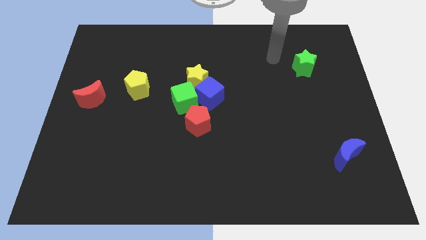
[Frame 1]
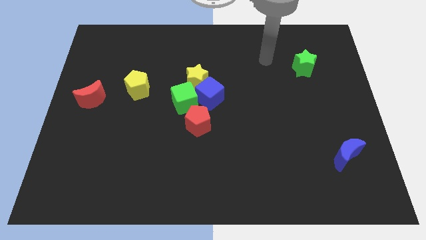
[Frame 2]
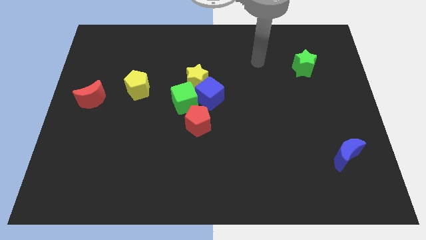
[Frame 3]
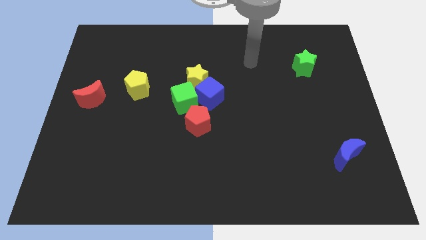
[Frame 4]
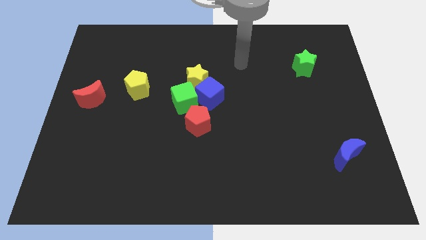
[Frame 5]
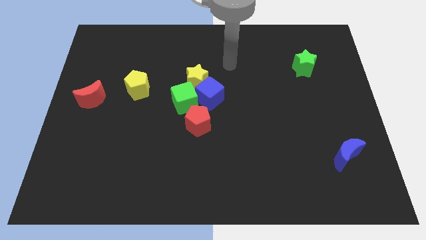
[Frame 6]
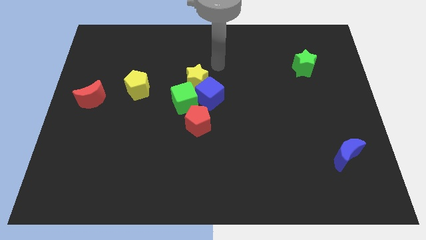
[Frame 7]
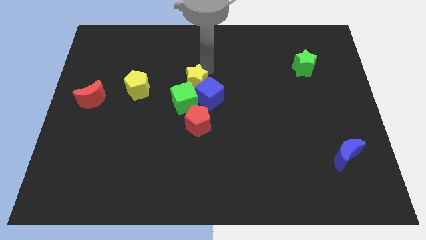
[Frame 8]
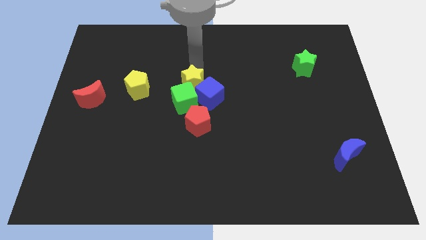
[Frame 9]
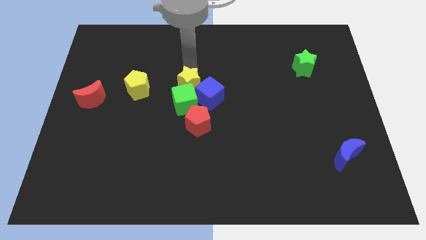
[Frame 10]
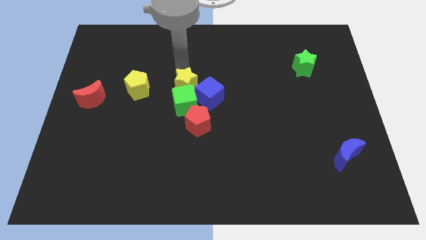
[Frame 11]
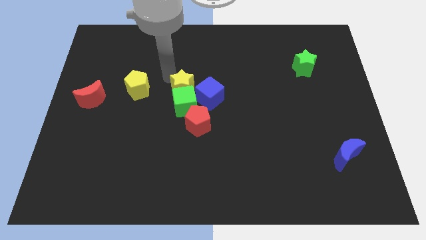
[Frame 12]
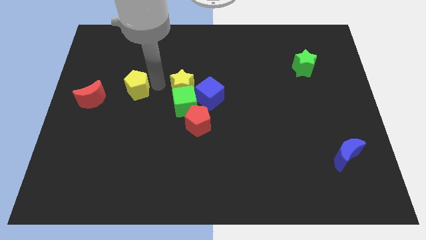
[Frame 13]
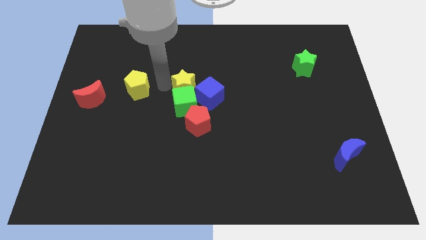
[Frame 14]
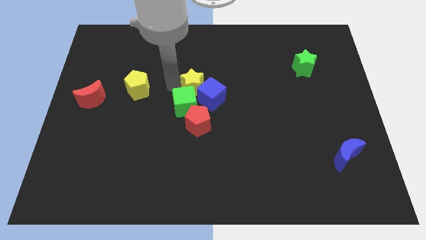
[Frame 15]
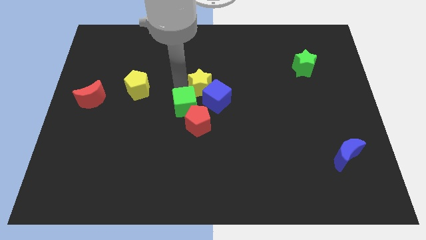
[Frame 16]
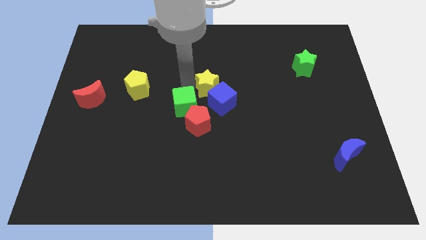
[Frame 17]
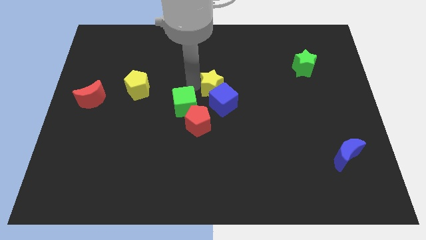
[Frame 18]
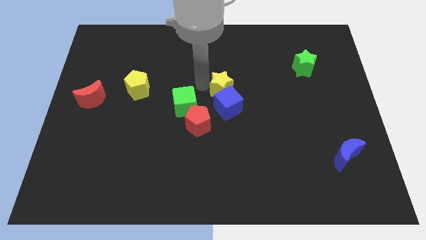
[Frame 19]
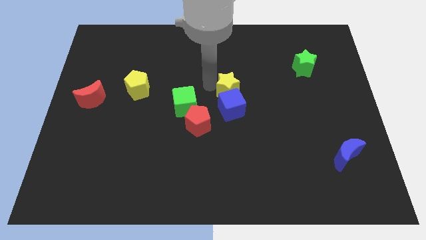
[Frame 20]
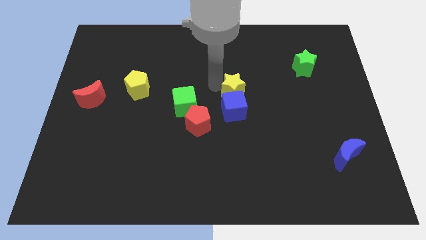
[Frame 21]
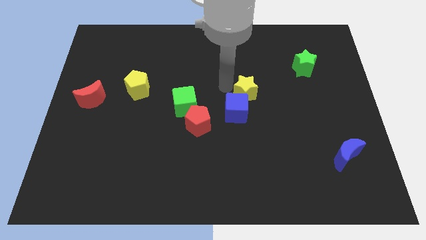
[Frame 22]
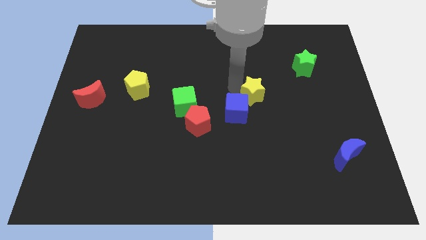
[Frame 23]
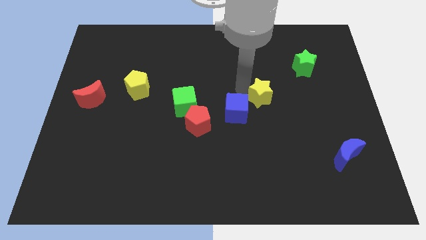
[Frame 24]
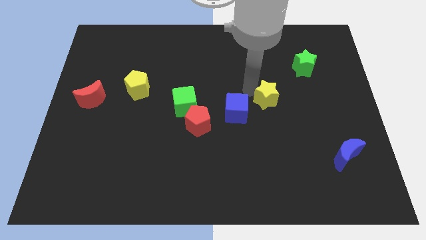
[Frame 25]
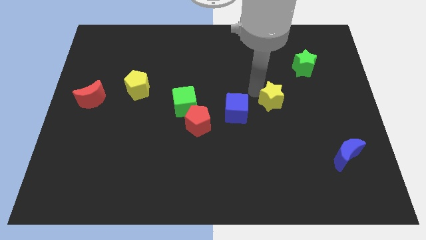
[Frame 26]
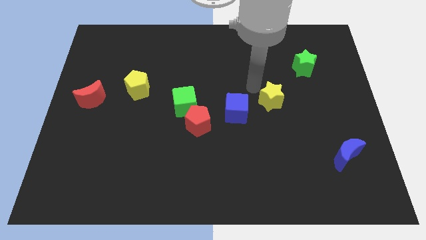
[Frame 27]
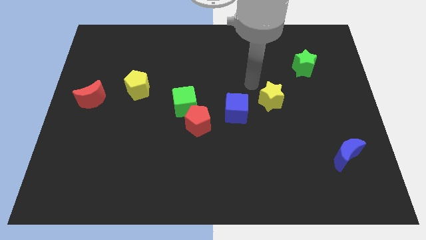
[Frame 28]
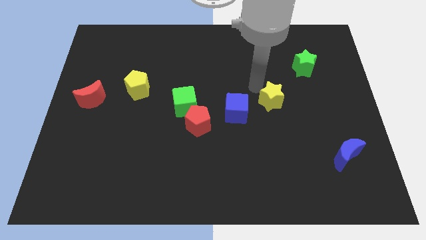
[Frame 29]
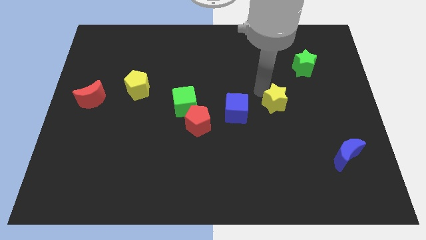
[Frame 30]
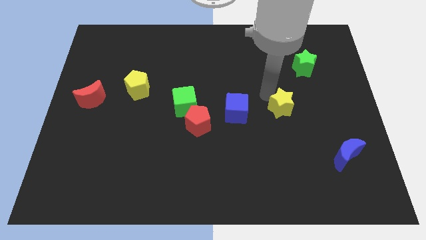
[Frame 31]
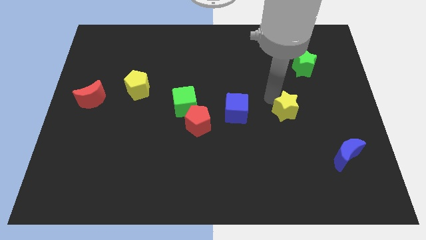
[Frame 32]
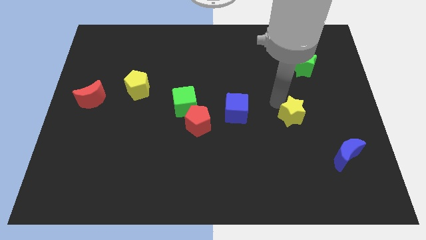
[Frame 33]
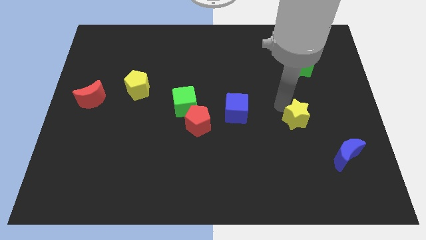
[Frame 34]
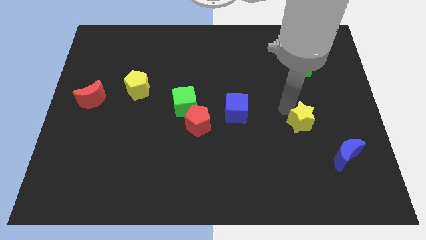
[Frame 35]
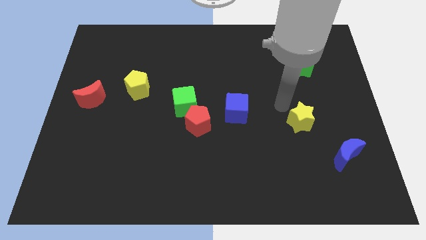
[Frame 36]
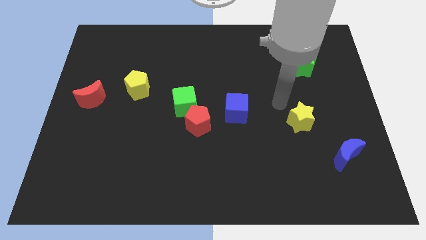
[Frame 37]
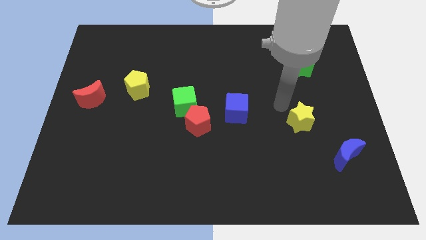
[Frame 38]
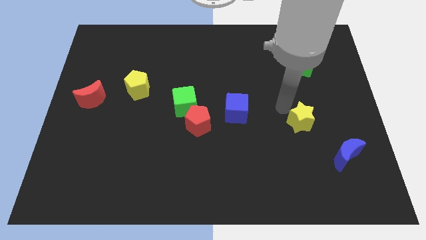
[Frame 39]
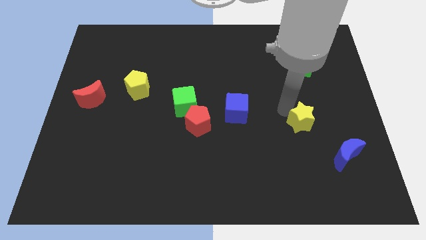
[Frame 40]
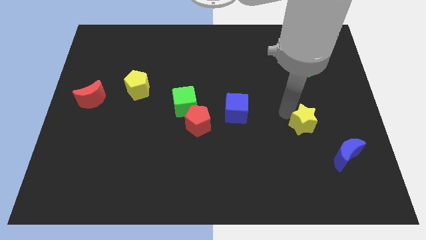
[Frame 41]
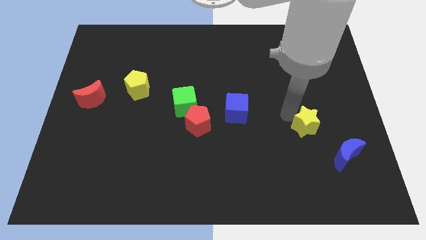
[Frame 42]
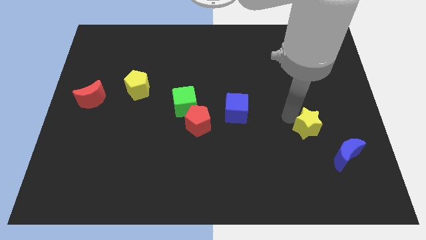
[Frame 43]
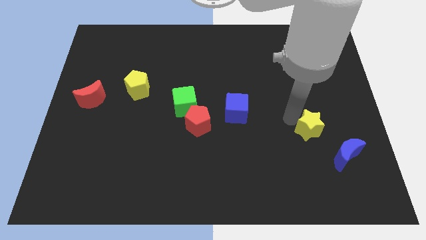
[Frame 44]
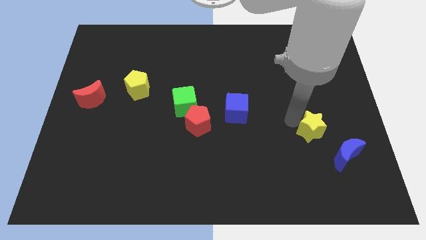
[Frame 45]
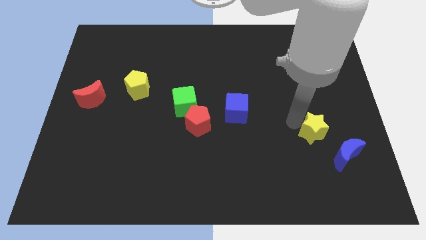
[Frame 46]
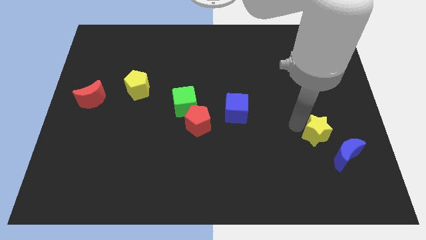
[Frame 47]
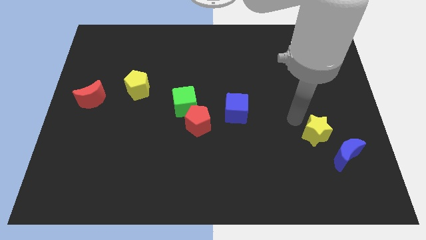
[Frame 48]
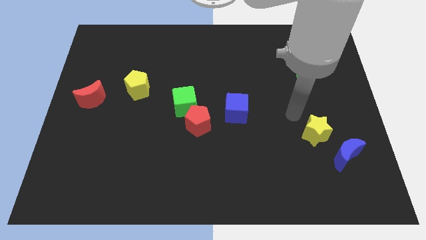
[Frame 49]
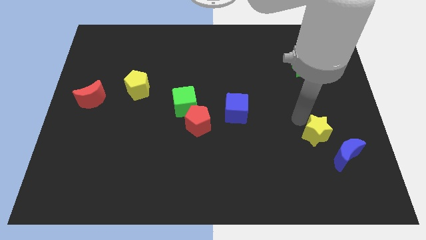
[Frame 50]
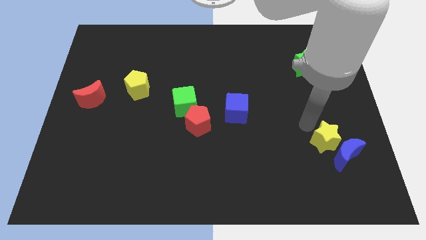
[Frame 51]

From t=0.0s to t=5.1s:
slide the yellow star close to the blue moon

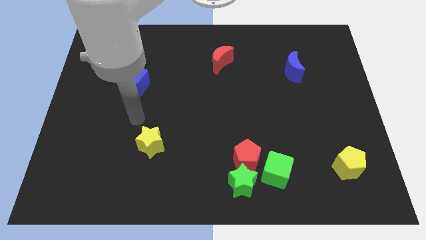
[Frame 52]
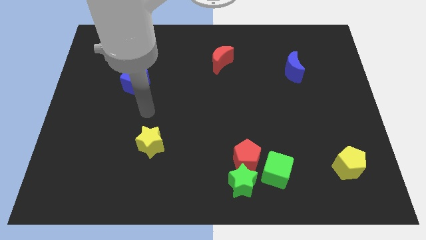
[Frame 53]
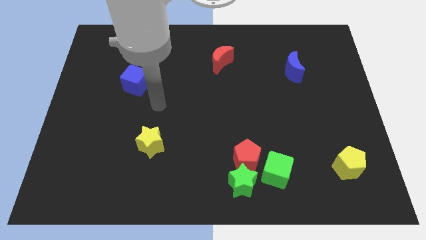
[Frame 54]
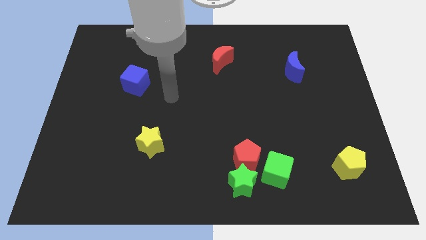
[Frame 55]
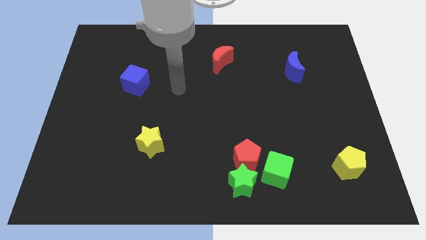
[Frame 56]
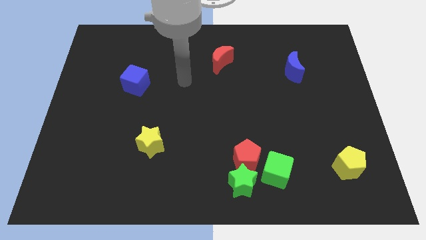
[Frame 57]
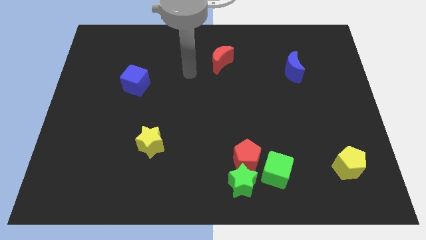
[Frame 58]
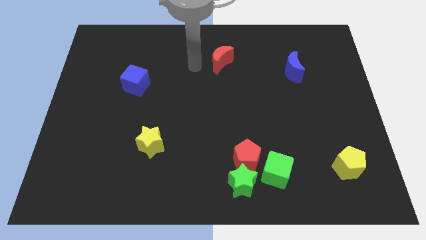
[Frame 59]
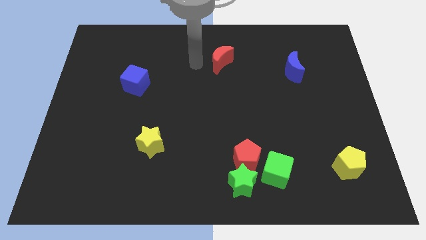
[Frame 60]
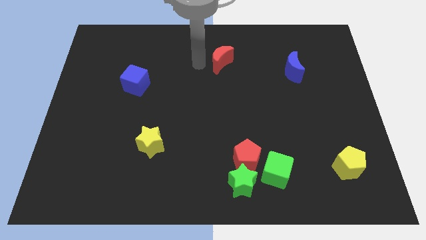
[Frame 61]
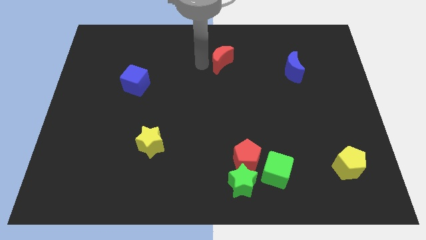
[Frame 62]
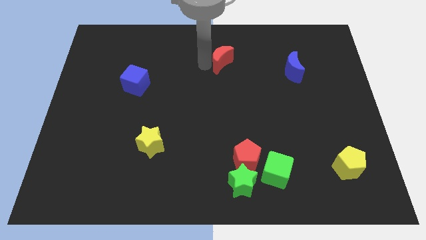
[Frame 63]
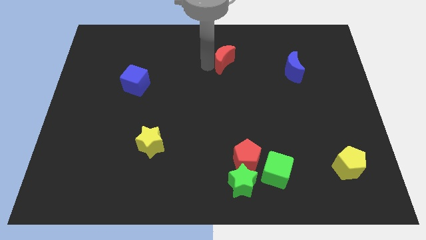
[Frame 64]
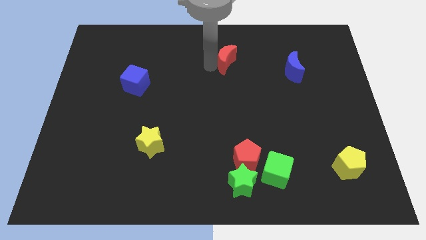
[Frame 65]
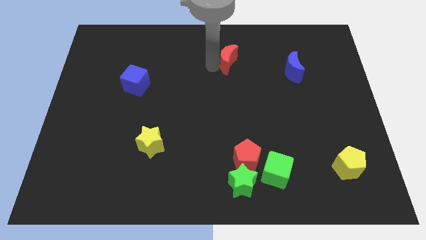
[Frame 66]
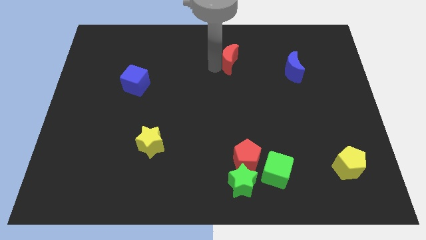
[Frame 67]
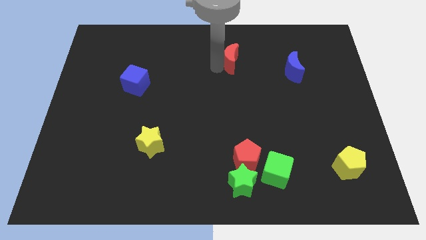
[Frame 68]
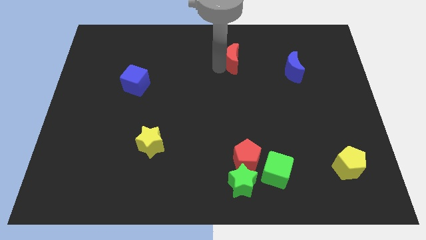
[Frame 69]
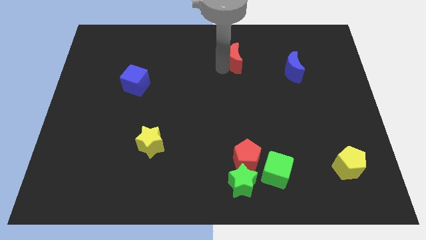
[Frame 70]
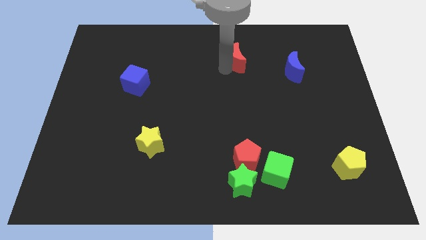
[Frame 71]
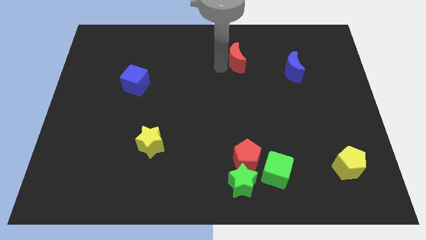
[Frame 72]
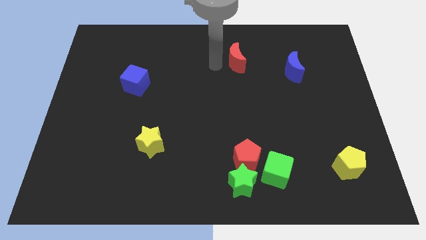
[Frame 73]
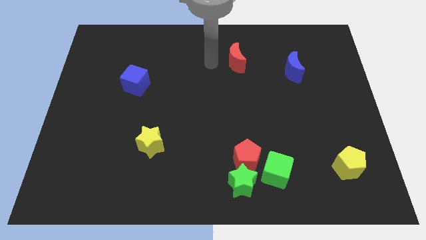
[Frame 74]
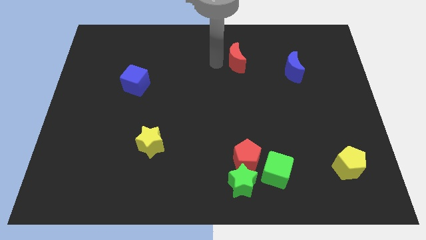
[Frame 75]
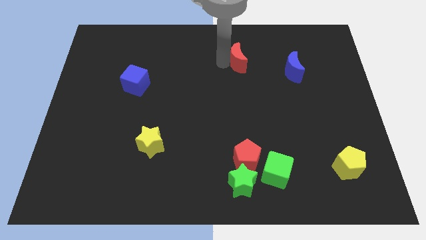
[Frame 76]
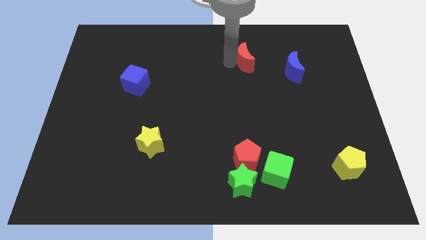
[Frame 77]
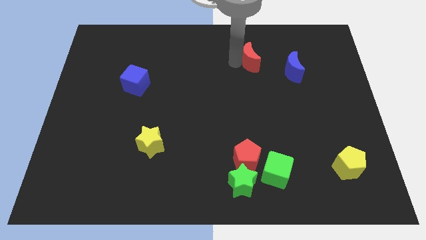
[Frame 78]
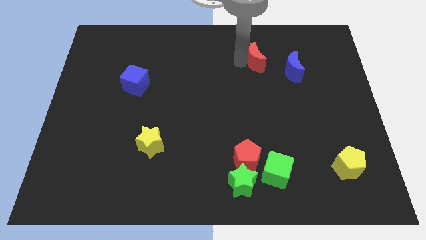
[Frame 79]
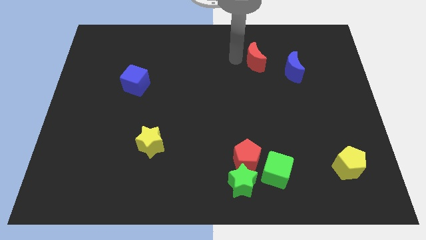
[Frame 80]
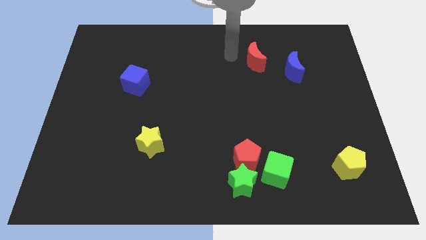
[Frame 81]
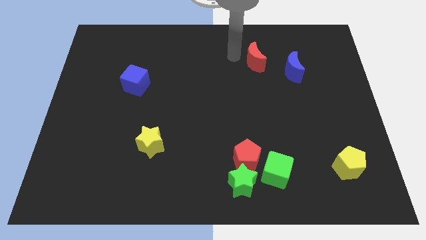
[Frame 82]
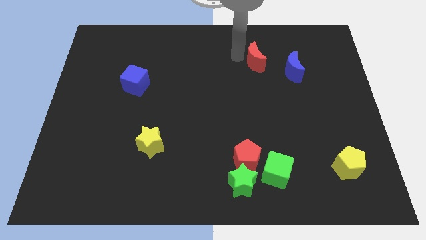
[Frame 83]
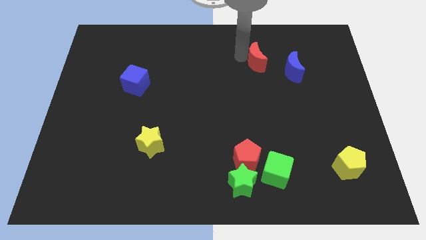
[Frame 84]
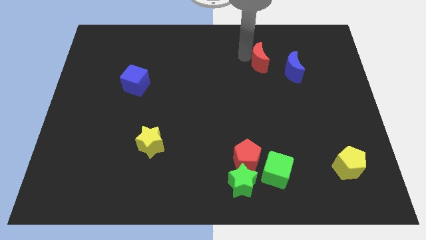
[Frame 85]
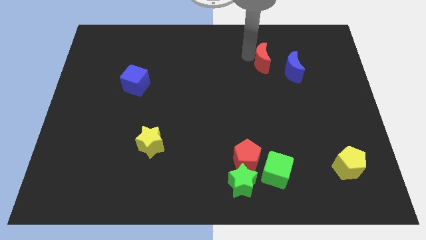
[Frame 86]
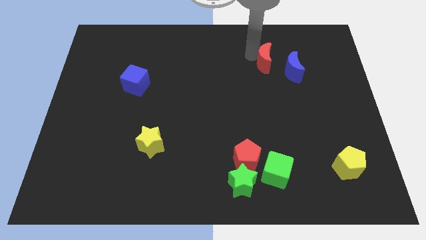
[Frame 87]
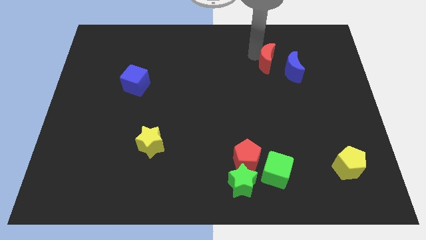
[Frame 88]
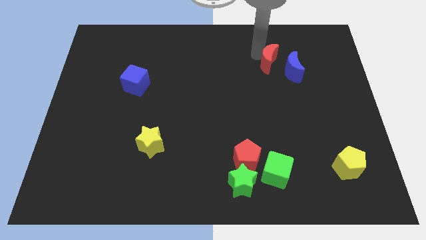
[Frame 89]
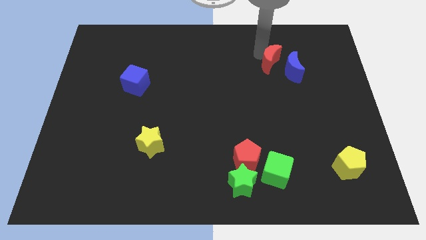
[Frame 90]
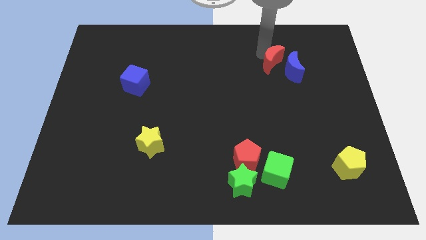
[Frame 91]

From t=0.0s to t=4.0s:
push the red moon towards the blue moon
